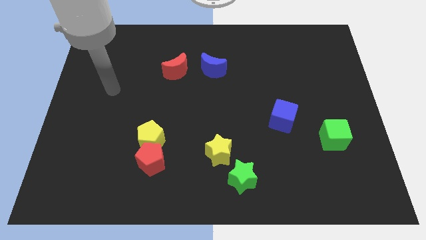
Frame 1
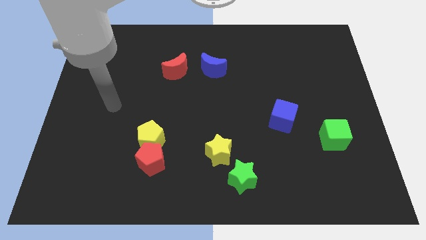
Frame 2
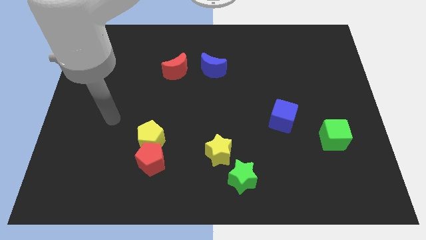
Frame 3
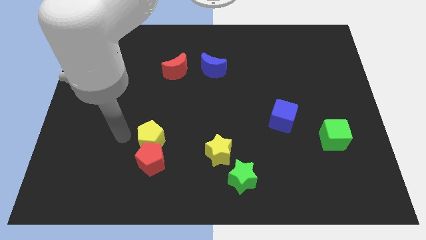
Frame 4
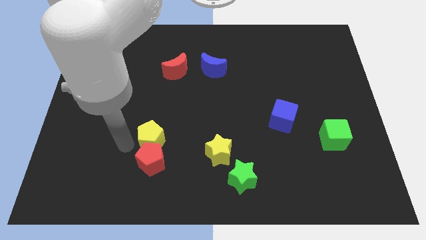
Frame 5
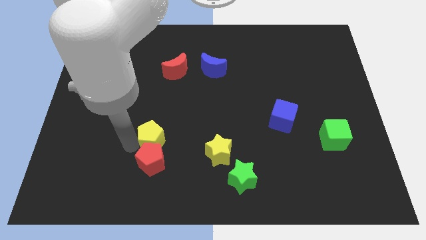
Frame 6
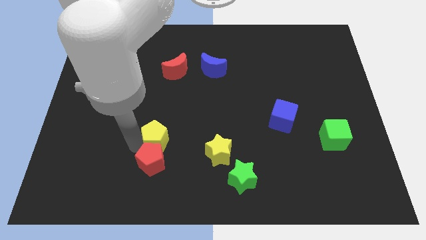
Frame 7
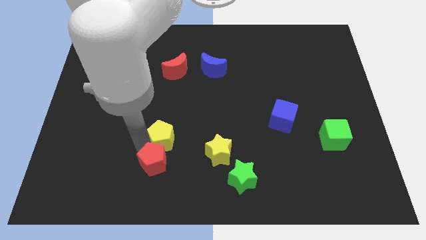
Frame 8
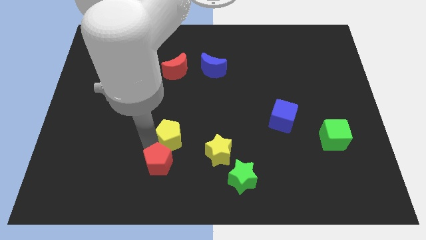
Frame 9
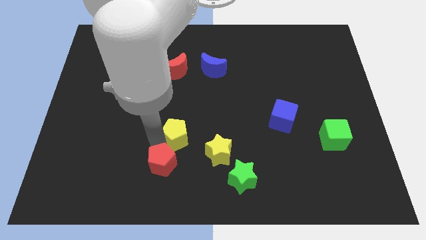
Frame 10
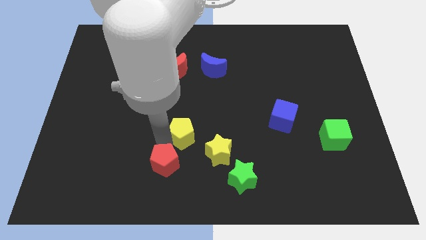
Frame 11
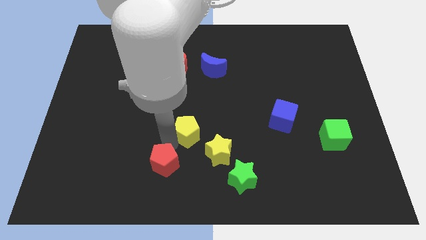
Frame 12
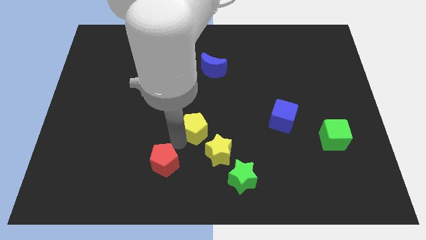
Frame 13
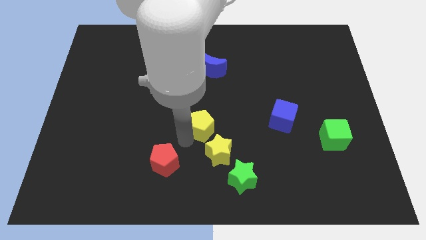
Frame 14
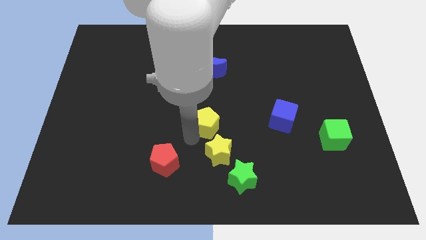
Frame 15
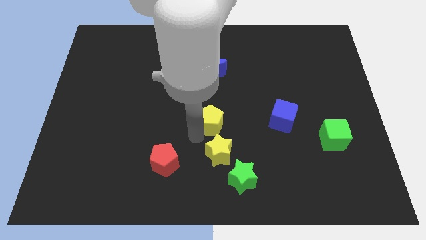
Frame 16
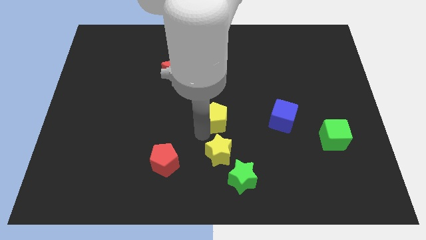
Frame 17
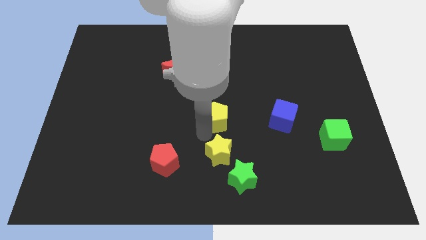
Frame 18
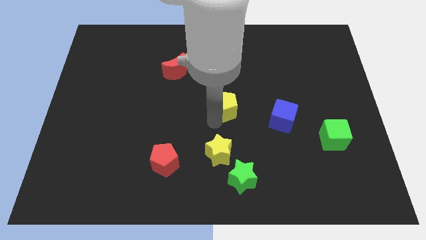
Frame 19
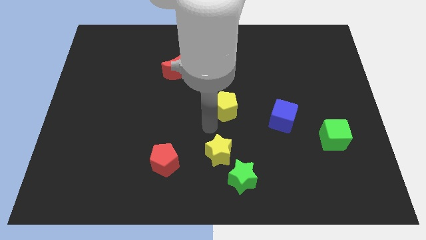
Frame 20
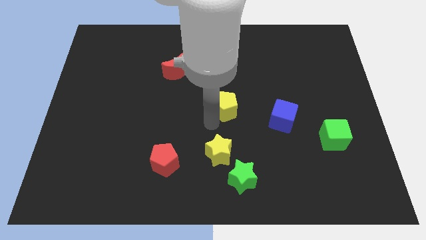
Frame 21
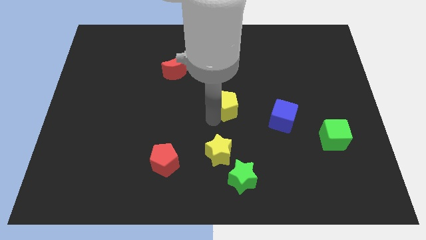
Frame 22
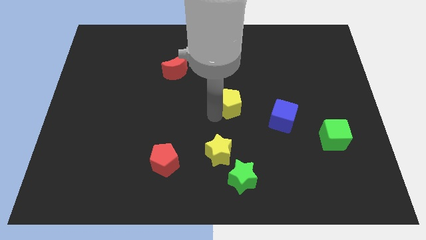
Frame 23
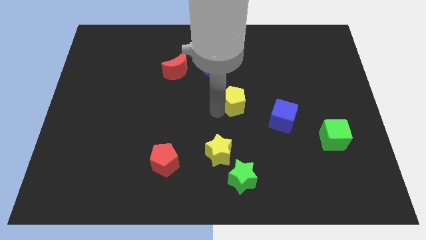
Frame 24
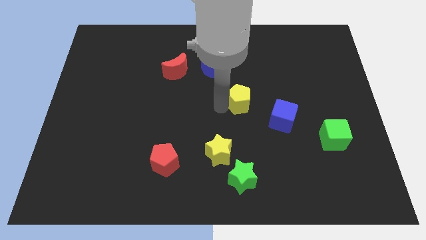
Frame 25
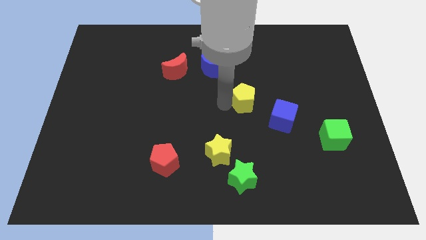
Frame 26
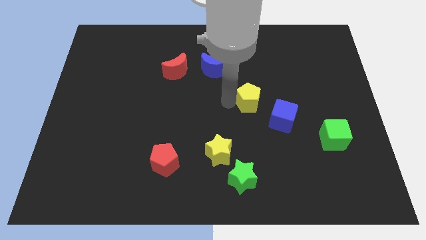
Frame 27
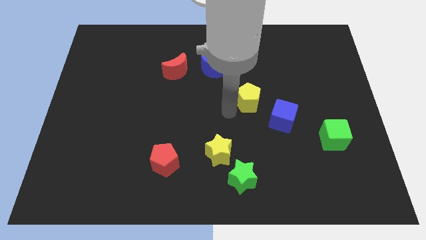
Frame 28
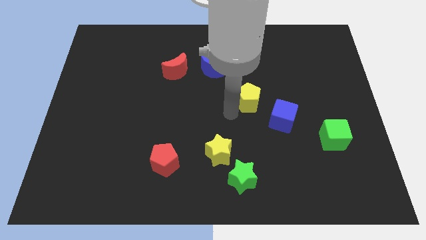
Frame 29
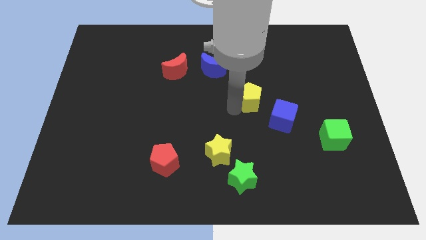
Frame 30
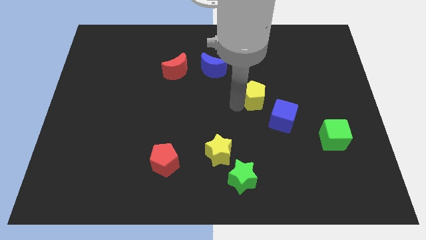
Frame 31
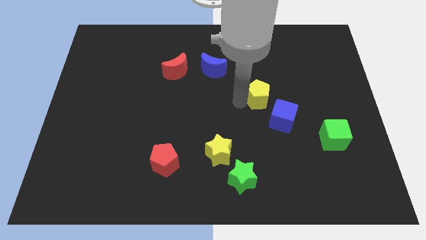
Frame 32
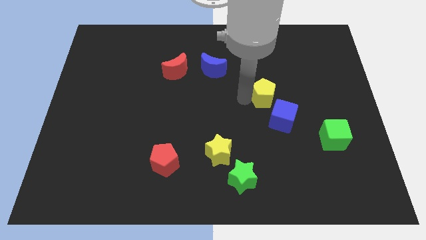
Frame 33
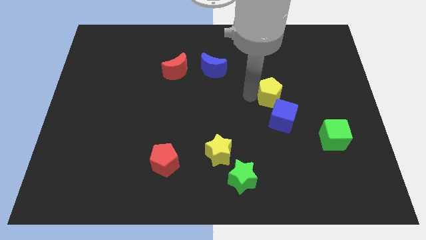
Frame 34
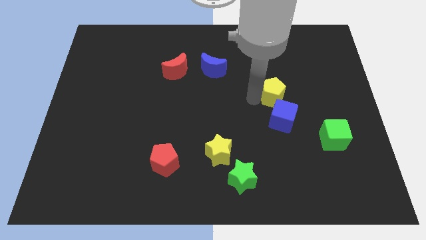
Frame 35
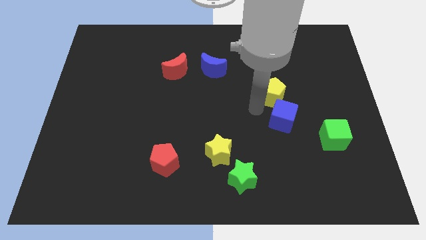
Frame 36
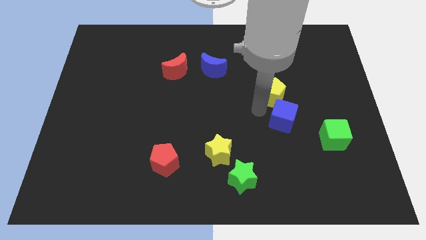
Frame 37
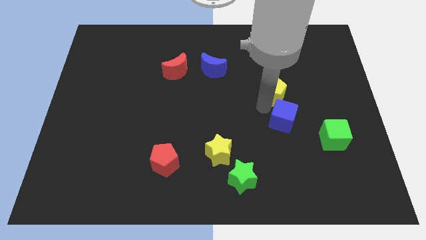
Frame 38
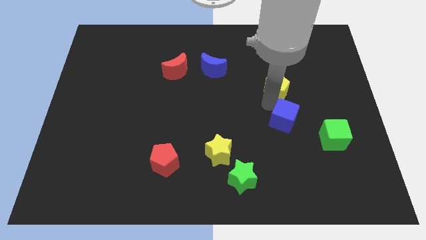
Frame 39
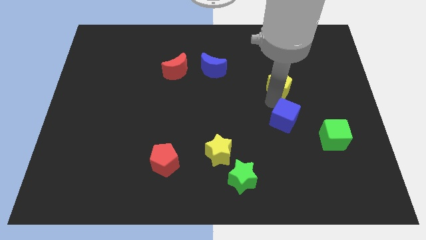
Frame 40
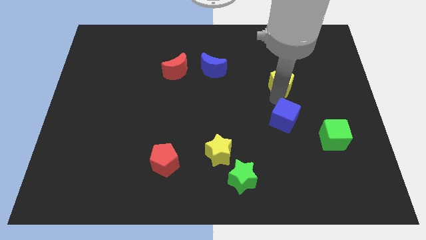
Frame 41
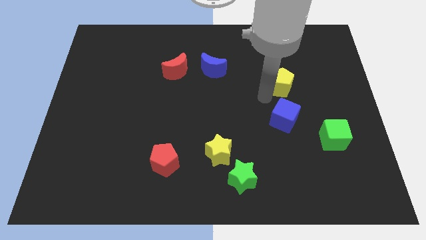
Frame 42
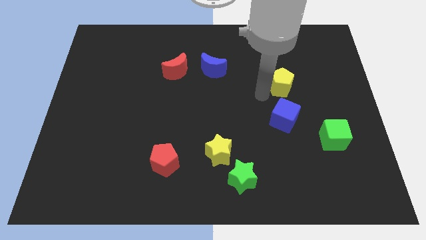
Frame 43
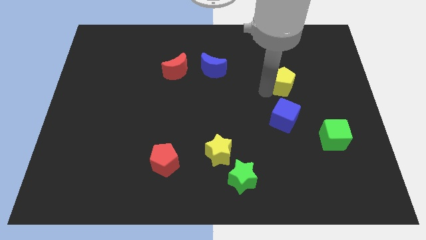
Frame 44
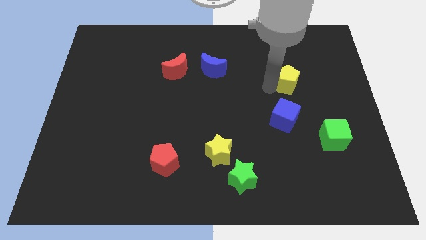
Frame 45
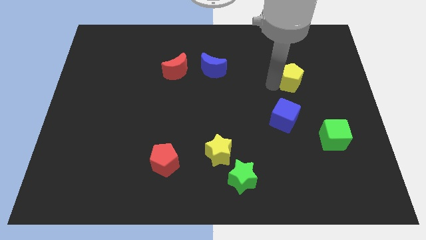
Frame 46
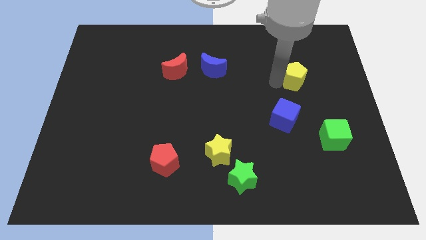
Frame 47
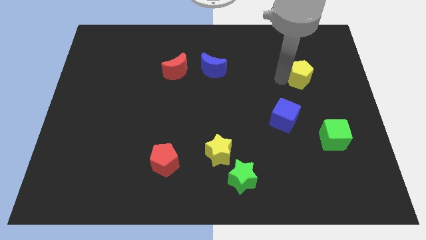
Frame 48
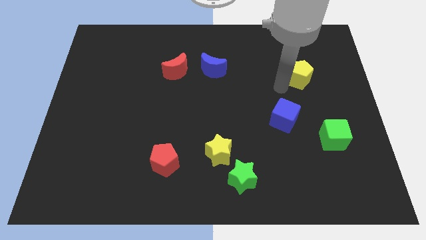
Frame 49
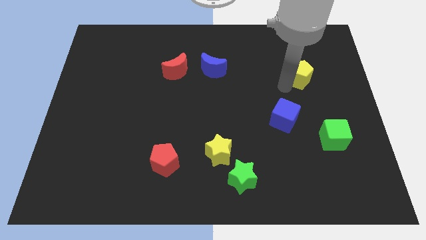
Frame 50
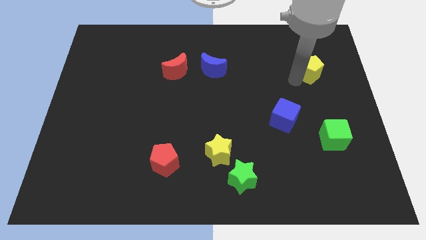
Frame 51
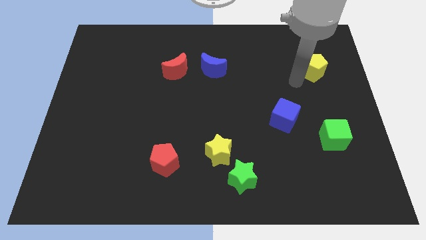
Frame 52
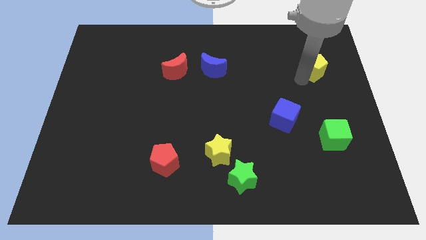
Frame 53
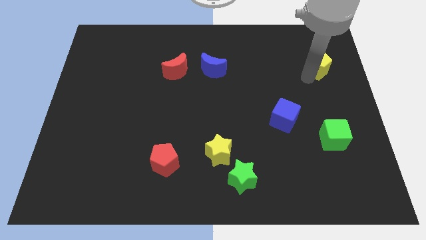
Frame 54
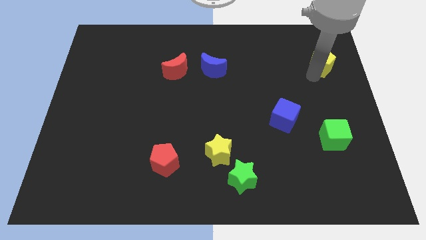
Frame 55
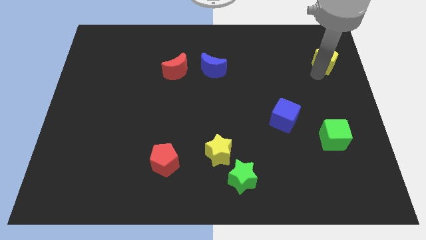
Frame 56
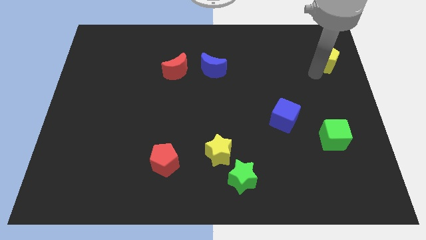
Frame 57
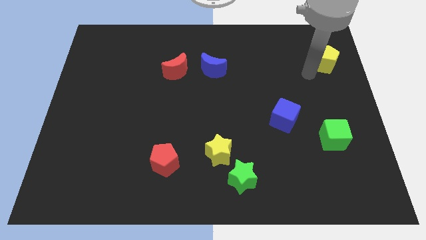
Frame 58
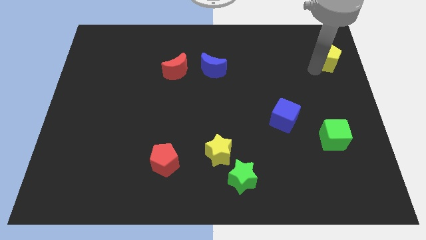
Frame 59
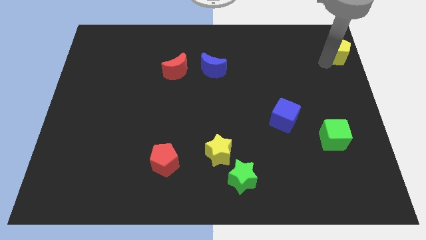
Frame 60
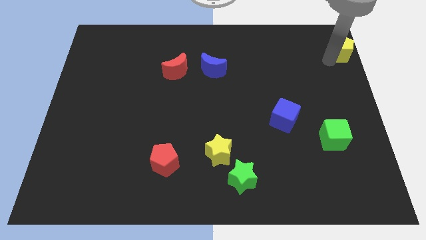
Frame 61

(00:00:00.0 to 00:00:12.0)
push the yellow pentagon to the top right corner
